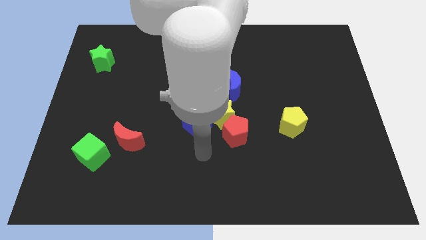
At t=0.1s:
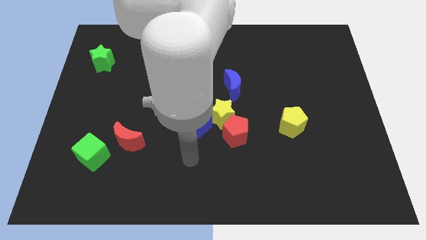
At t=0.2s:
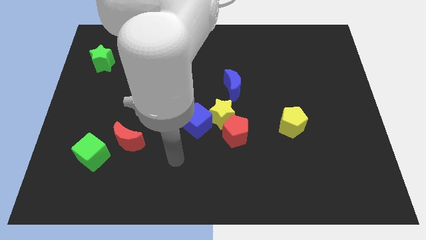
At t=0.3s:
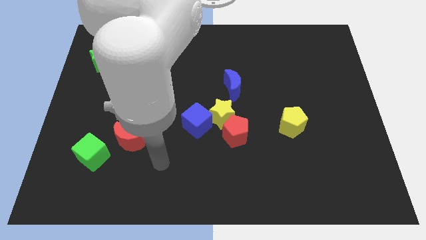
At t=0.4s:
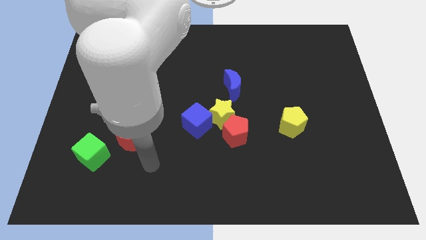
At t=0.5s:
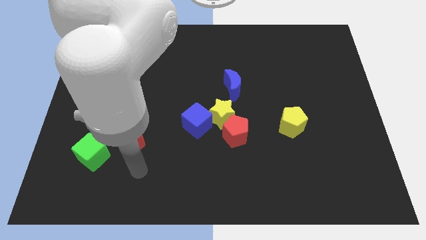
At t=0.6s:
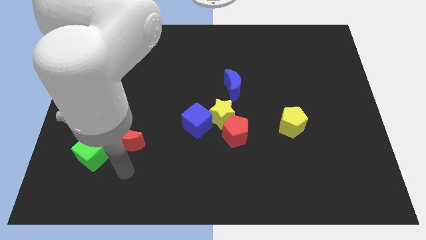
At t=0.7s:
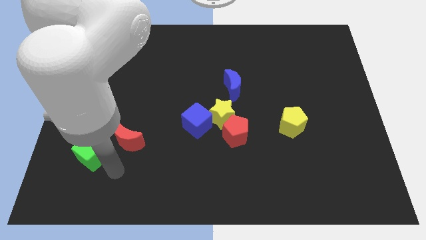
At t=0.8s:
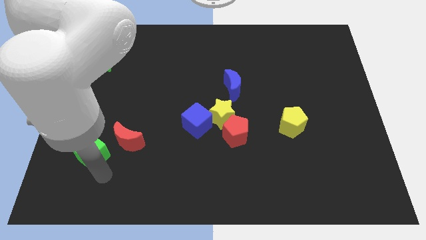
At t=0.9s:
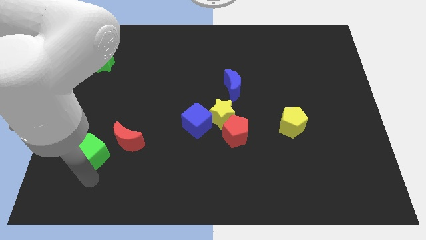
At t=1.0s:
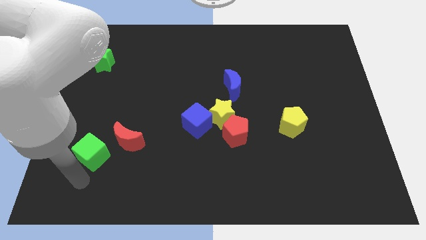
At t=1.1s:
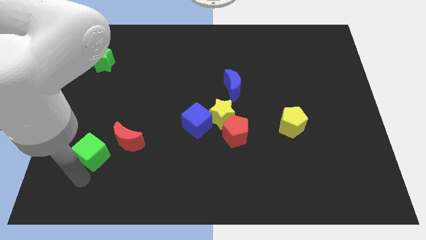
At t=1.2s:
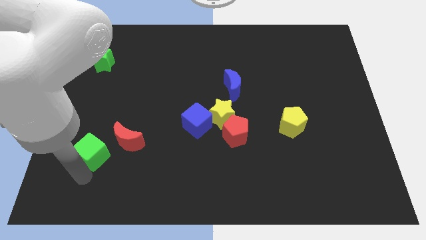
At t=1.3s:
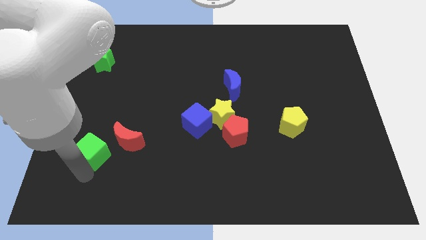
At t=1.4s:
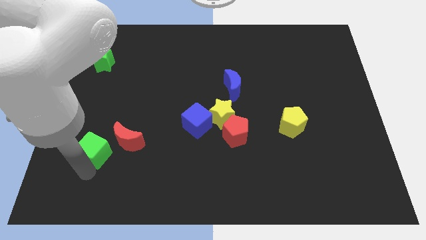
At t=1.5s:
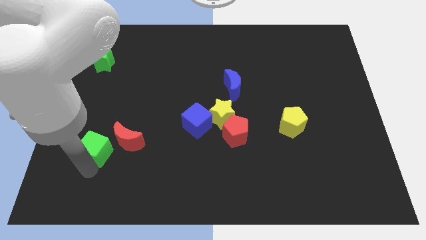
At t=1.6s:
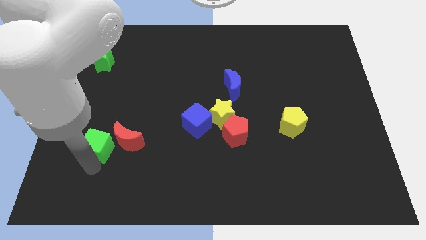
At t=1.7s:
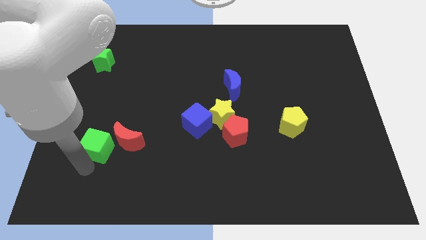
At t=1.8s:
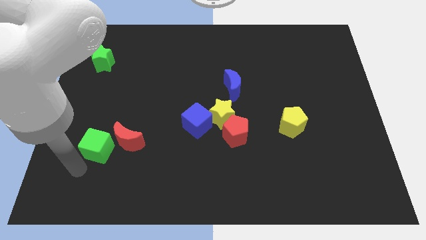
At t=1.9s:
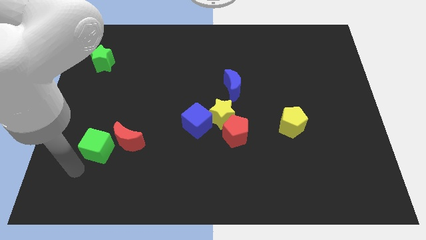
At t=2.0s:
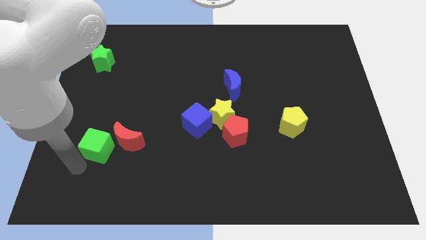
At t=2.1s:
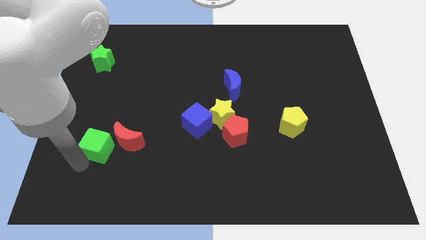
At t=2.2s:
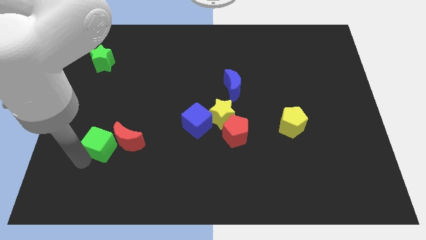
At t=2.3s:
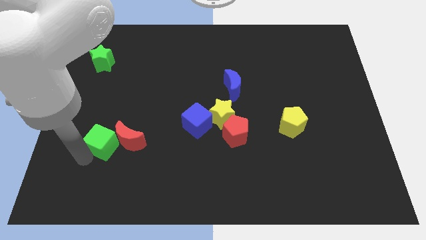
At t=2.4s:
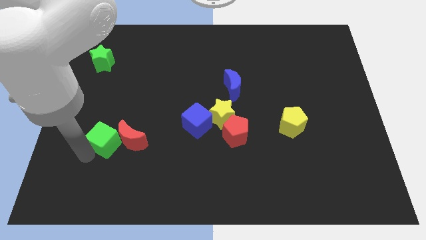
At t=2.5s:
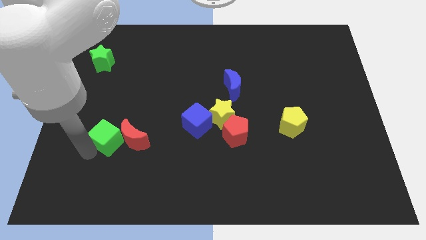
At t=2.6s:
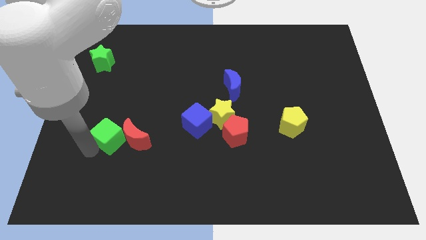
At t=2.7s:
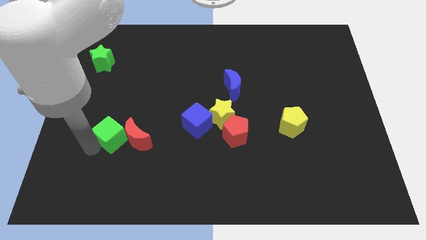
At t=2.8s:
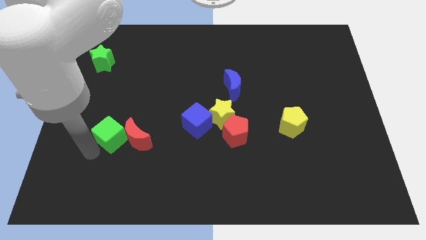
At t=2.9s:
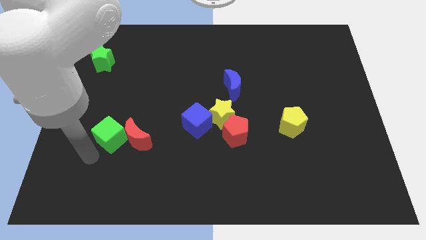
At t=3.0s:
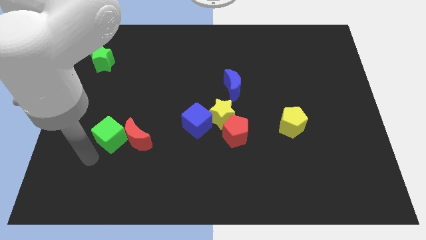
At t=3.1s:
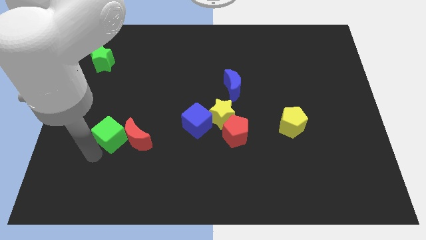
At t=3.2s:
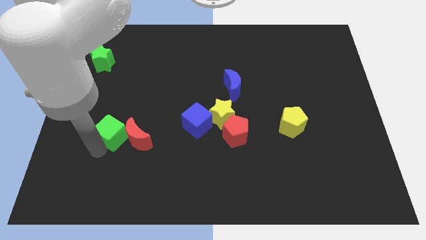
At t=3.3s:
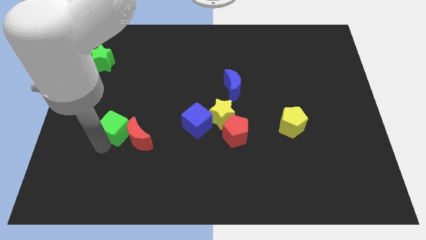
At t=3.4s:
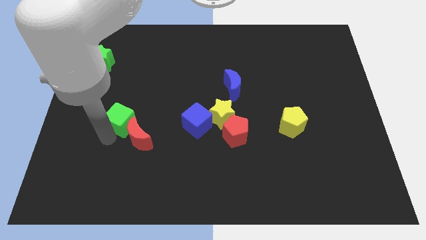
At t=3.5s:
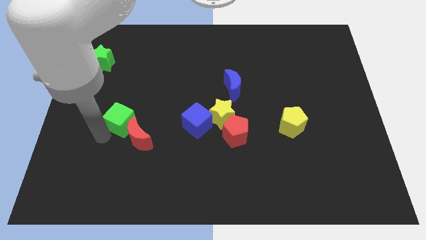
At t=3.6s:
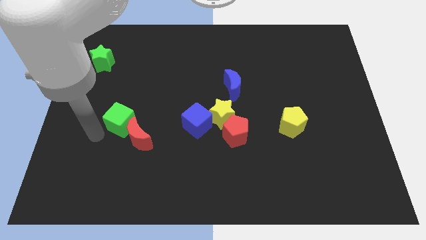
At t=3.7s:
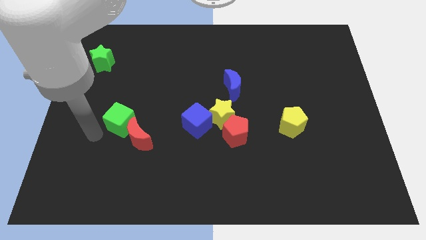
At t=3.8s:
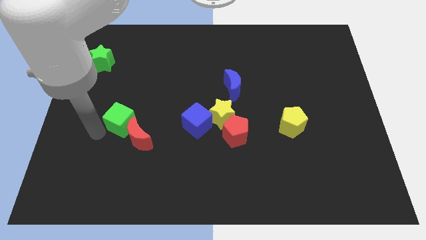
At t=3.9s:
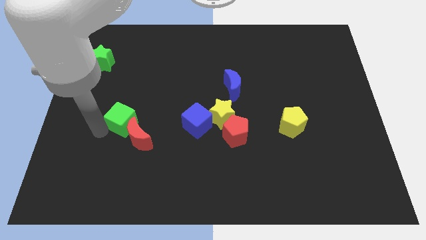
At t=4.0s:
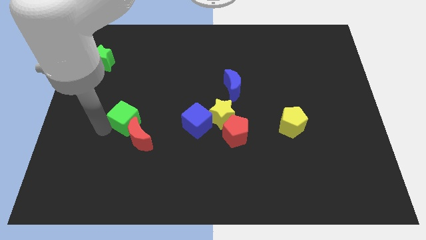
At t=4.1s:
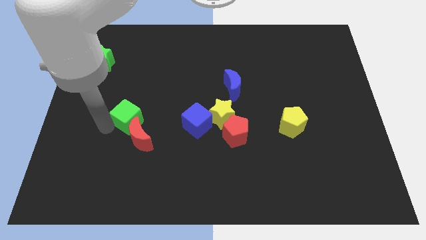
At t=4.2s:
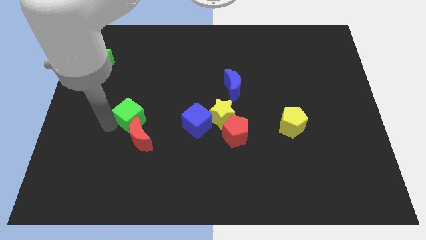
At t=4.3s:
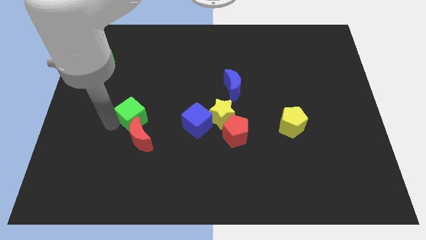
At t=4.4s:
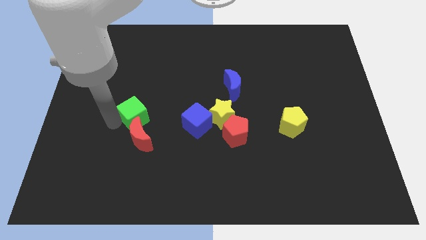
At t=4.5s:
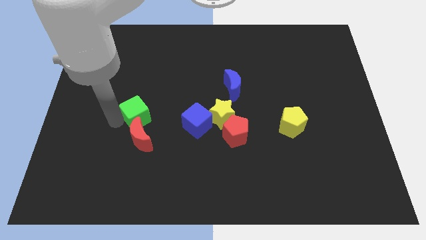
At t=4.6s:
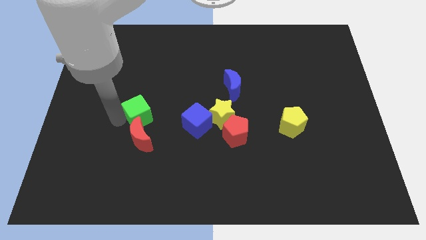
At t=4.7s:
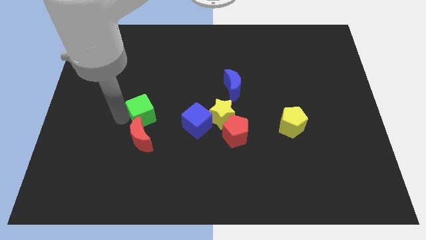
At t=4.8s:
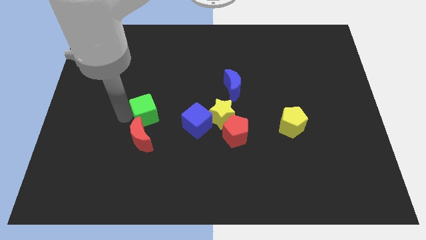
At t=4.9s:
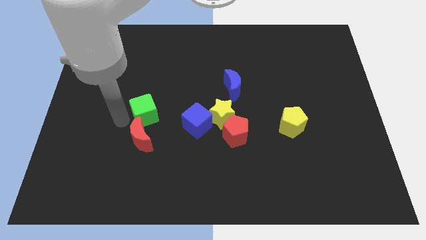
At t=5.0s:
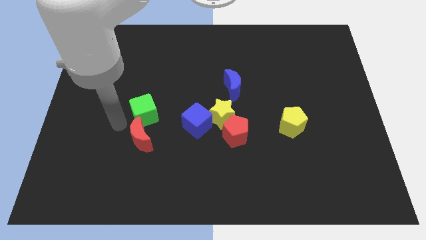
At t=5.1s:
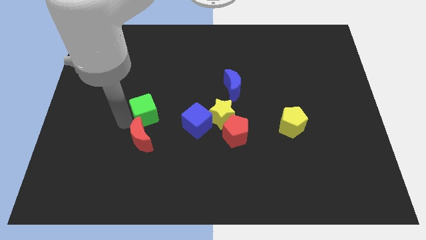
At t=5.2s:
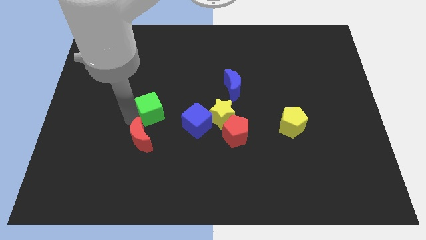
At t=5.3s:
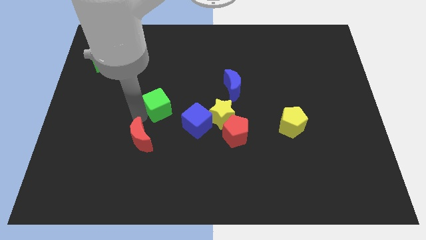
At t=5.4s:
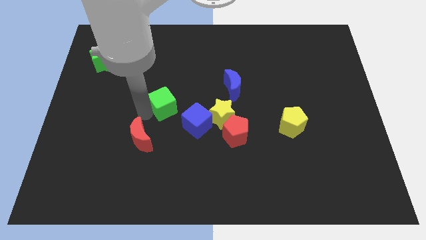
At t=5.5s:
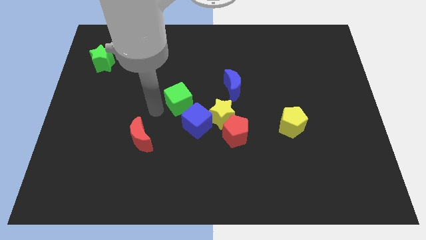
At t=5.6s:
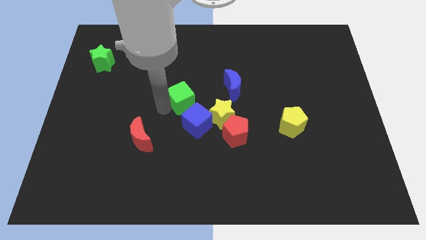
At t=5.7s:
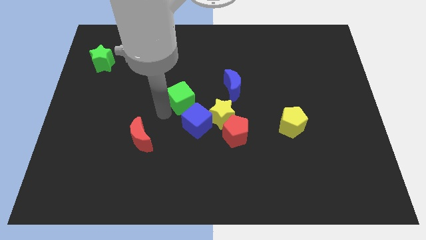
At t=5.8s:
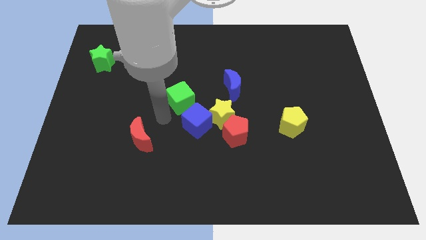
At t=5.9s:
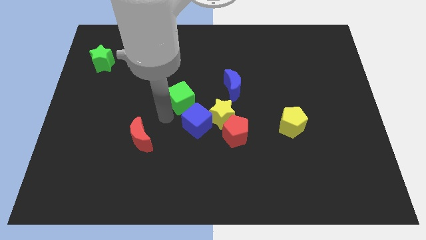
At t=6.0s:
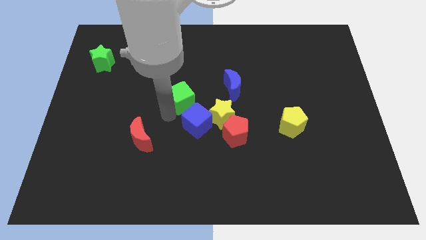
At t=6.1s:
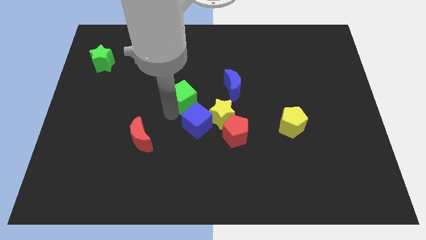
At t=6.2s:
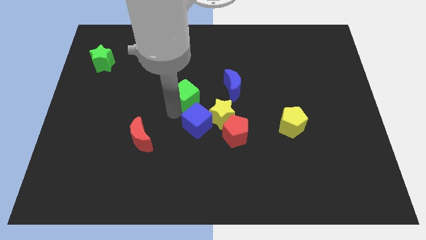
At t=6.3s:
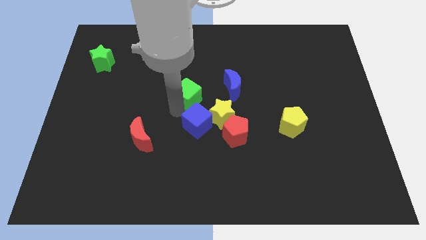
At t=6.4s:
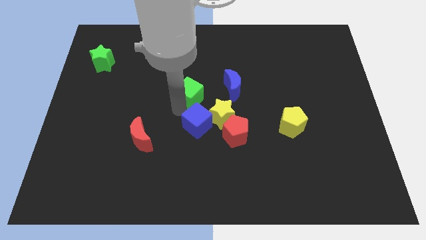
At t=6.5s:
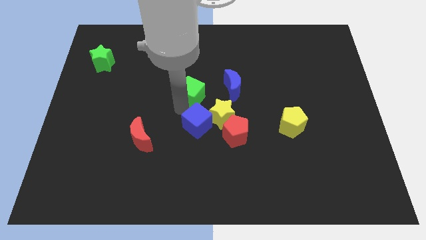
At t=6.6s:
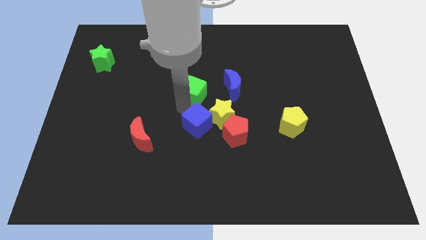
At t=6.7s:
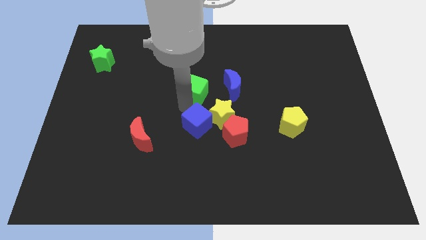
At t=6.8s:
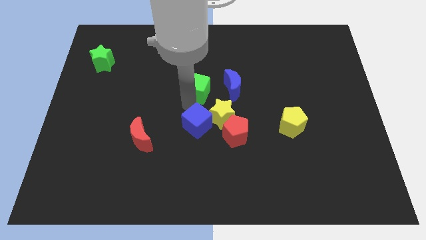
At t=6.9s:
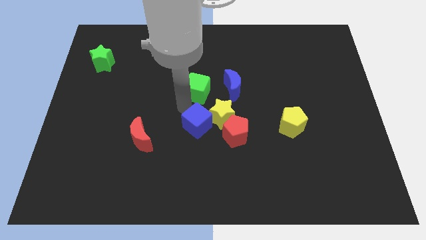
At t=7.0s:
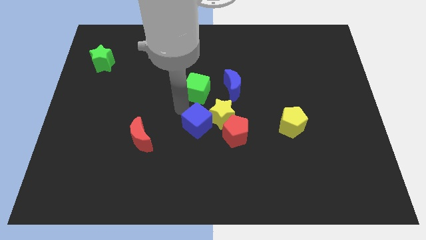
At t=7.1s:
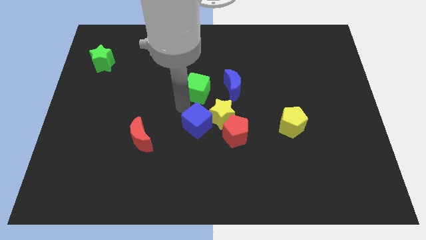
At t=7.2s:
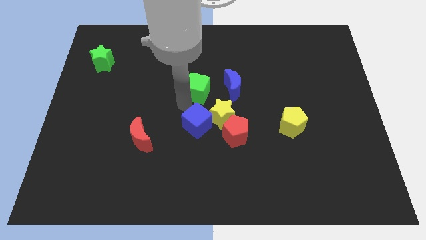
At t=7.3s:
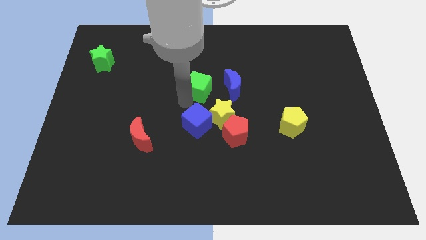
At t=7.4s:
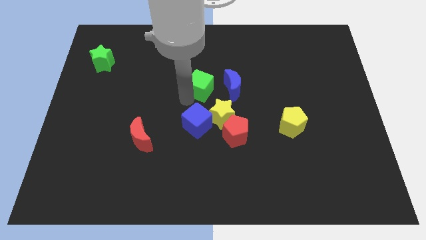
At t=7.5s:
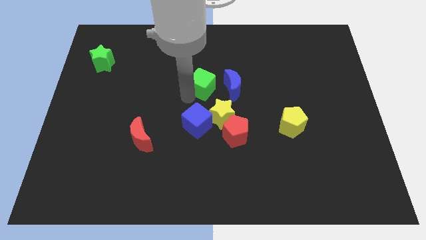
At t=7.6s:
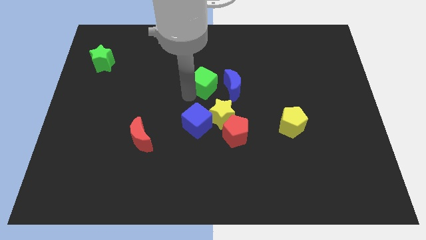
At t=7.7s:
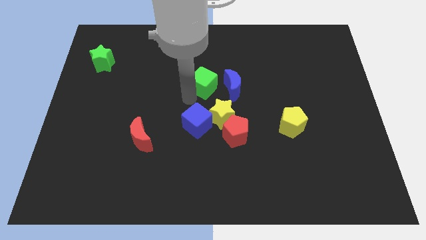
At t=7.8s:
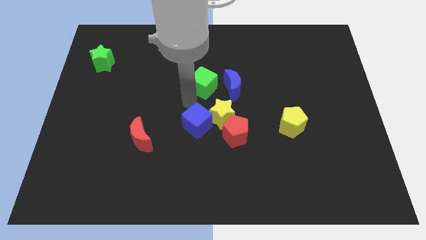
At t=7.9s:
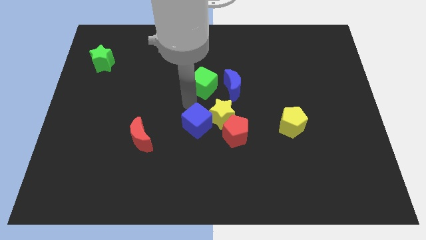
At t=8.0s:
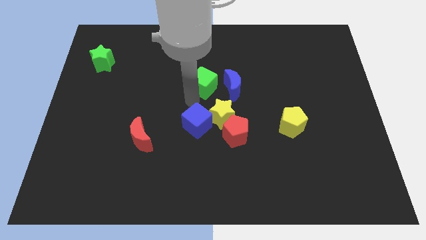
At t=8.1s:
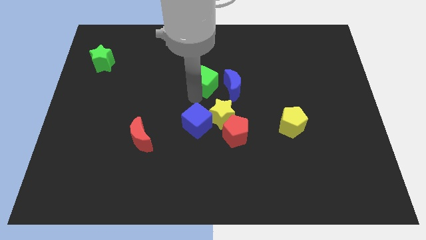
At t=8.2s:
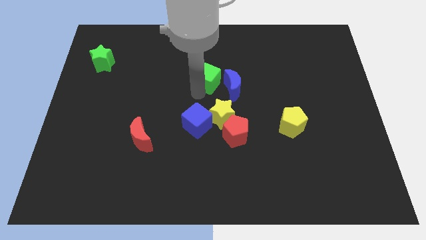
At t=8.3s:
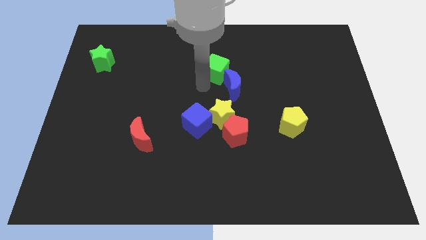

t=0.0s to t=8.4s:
slide the green cube to the top side of the blue moon
